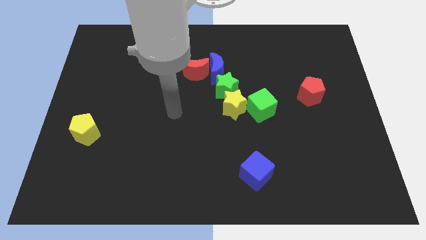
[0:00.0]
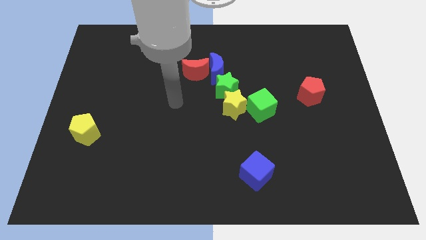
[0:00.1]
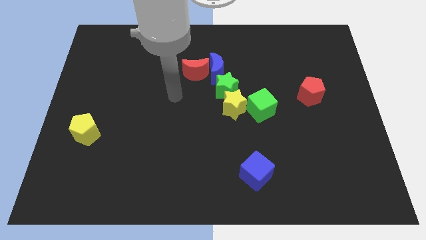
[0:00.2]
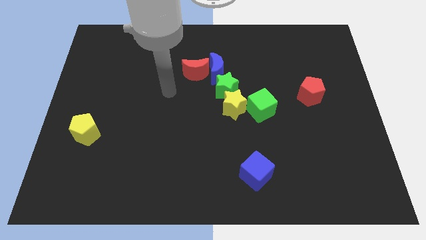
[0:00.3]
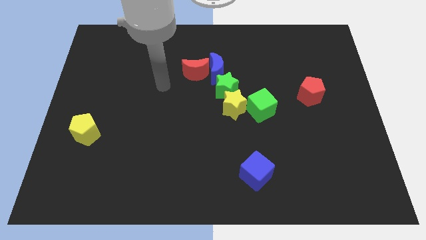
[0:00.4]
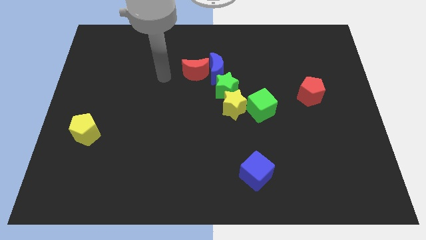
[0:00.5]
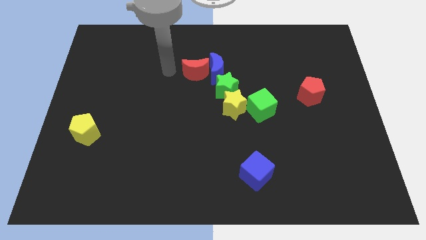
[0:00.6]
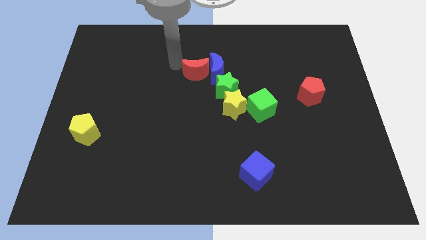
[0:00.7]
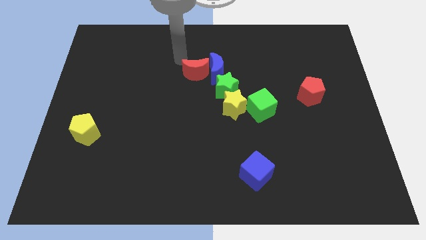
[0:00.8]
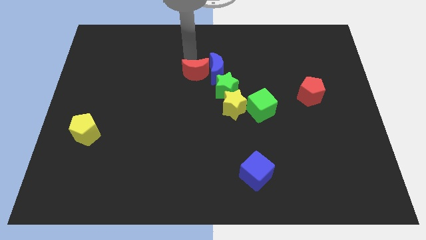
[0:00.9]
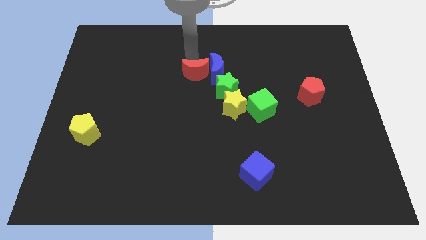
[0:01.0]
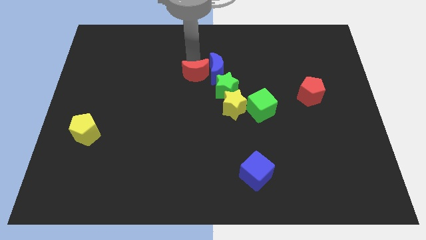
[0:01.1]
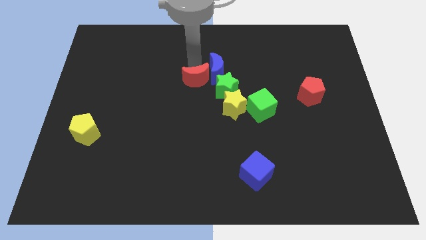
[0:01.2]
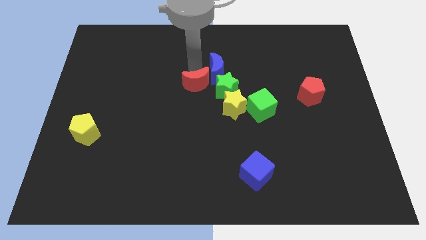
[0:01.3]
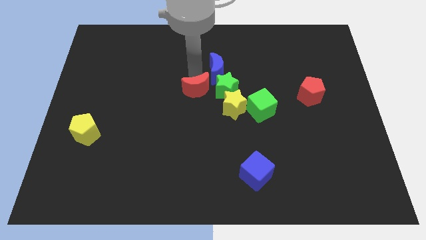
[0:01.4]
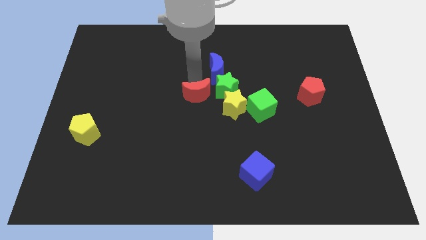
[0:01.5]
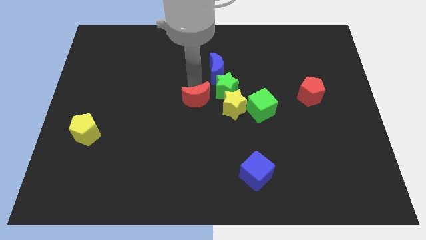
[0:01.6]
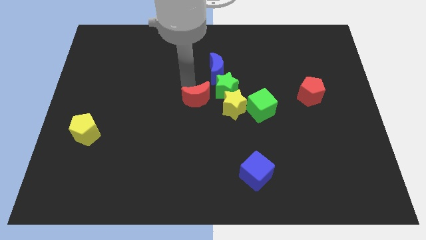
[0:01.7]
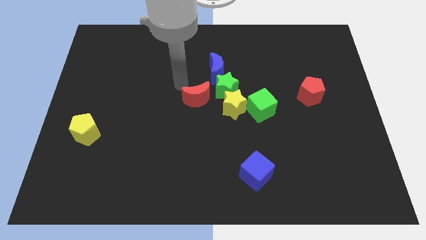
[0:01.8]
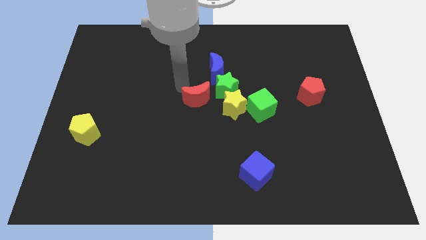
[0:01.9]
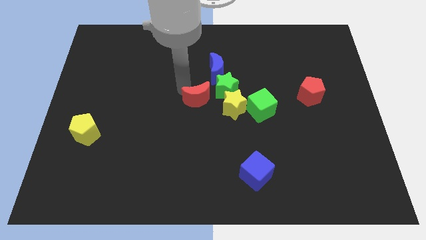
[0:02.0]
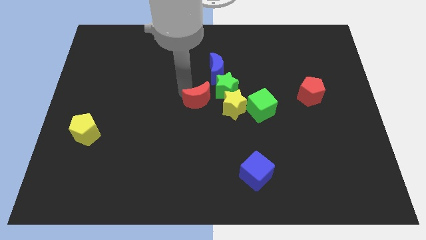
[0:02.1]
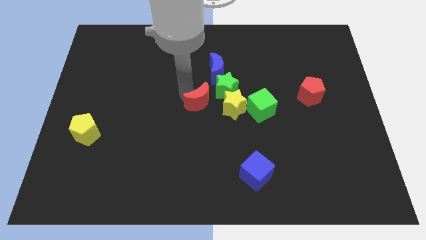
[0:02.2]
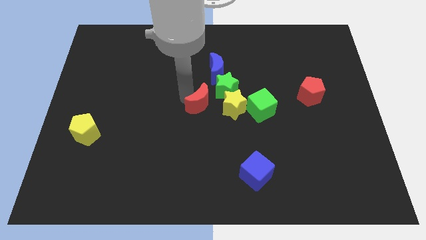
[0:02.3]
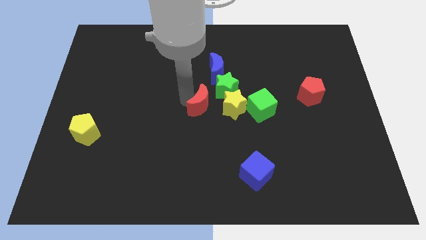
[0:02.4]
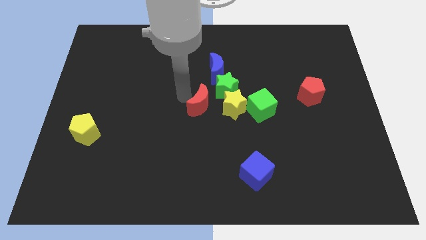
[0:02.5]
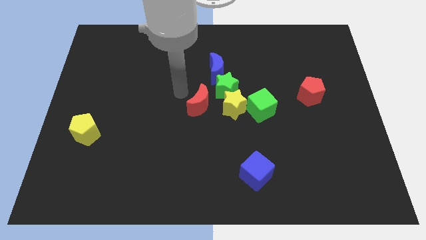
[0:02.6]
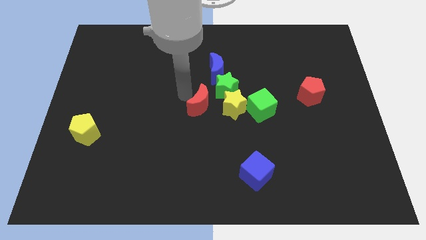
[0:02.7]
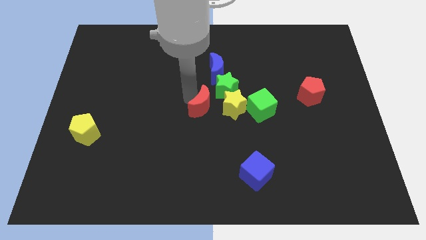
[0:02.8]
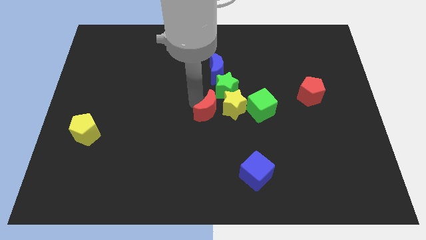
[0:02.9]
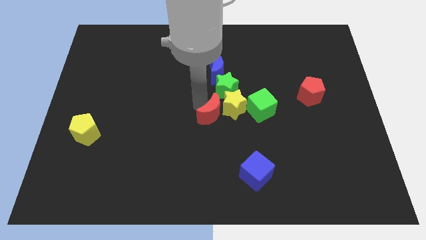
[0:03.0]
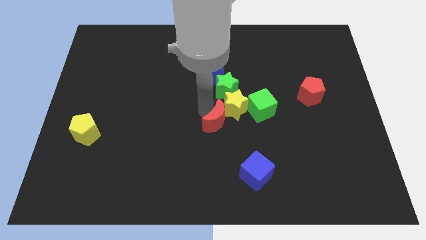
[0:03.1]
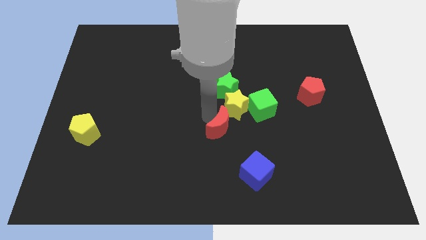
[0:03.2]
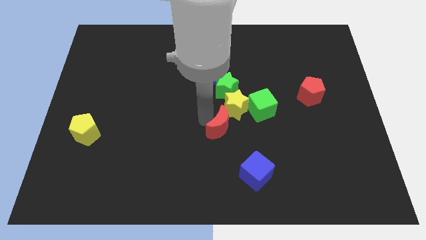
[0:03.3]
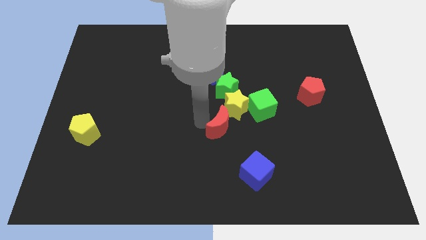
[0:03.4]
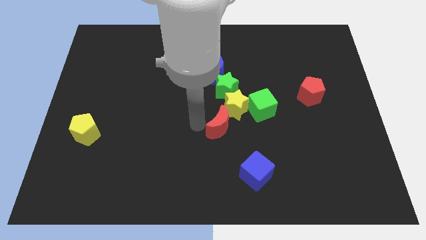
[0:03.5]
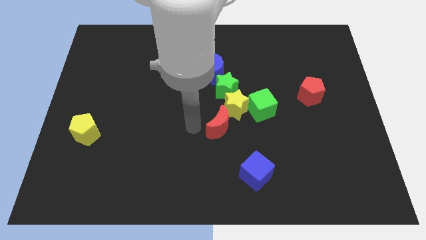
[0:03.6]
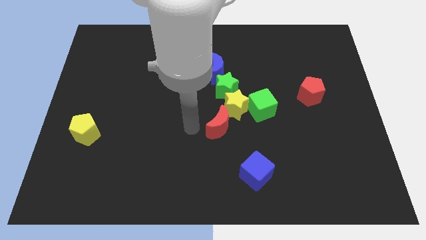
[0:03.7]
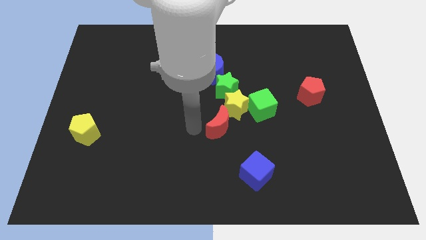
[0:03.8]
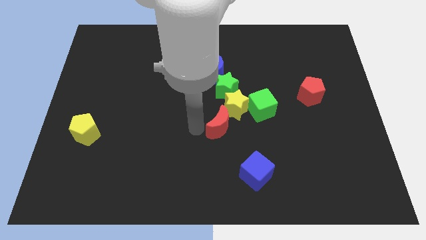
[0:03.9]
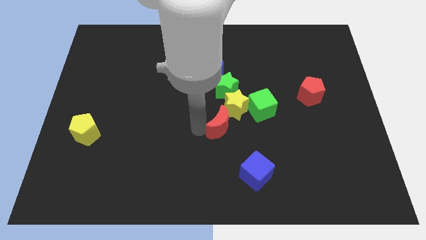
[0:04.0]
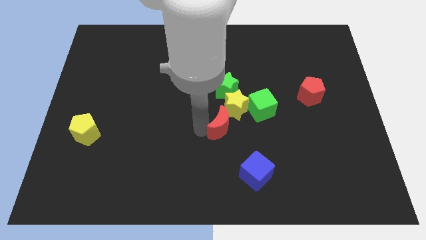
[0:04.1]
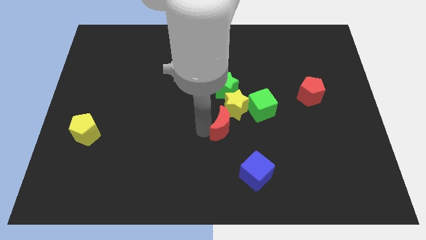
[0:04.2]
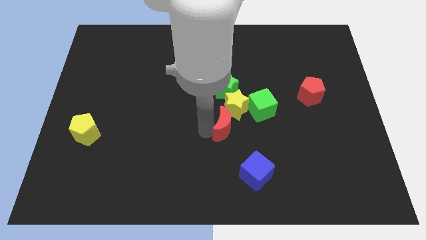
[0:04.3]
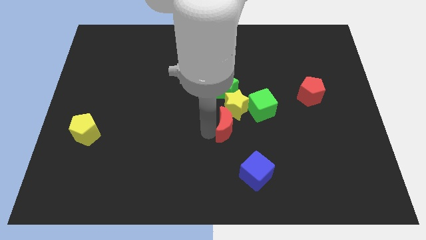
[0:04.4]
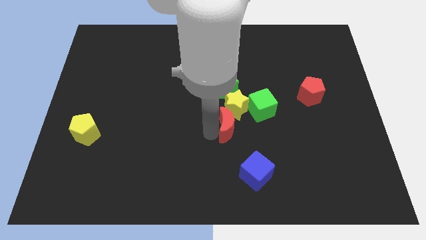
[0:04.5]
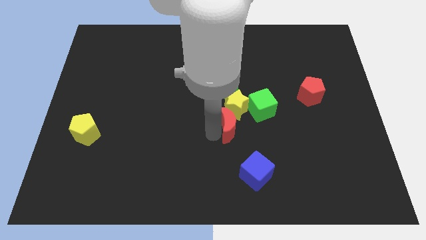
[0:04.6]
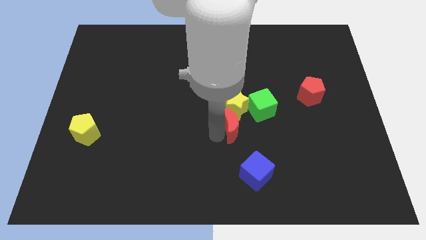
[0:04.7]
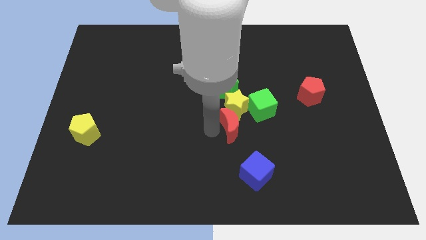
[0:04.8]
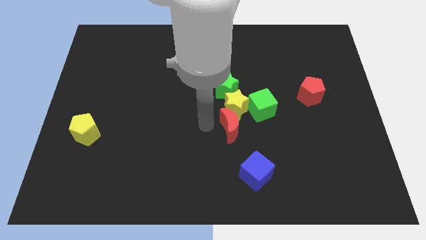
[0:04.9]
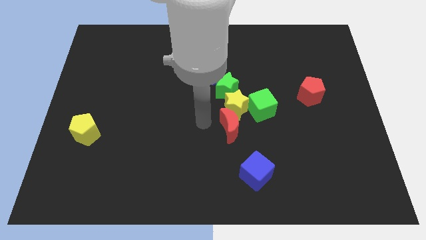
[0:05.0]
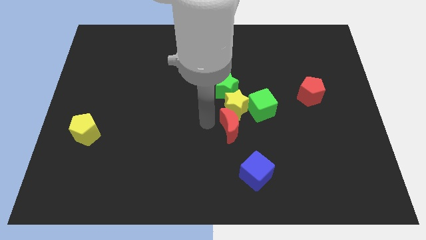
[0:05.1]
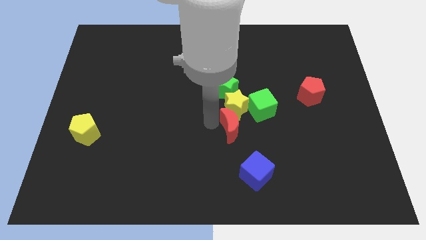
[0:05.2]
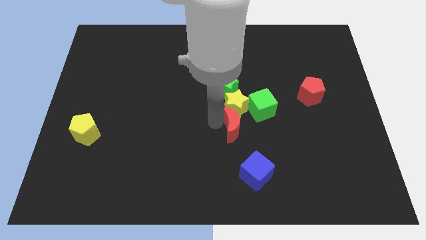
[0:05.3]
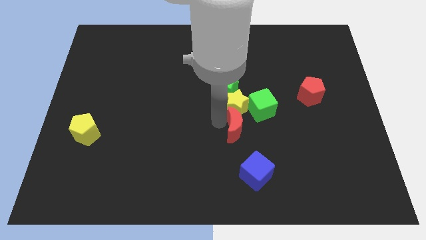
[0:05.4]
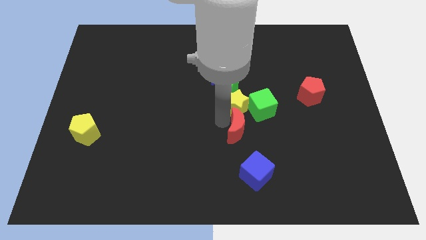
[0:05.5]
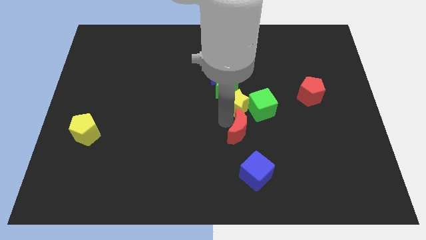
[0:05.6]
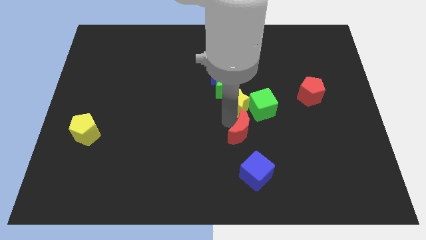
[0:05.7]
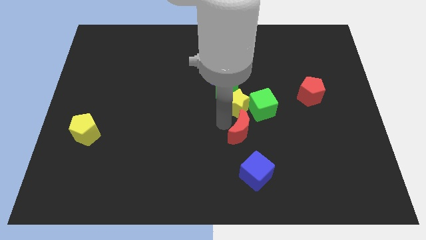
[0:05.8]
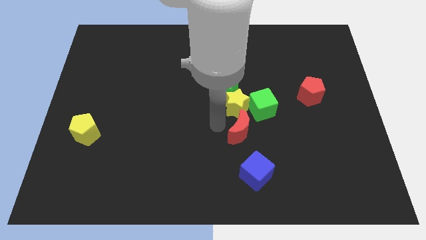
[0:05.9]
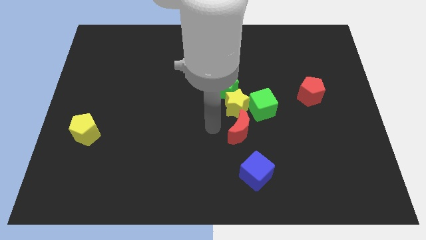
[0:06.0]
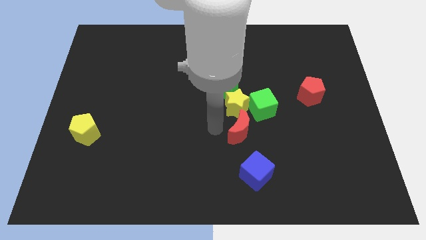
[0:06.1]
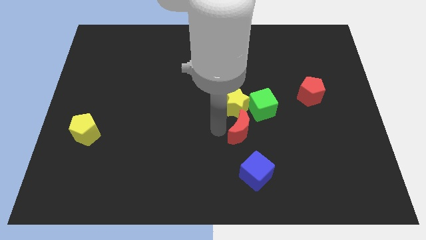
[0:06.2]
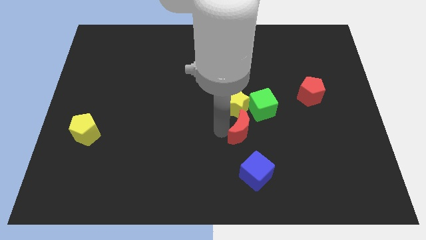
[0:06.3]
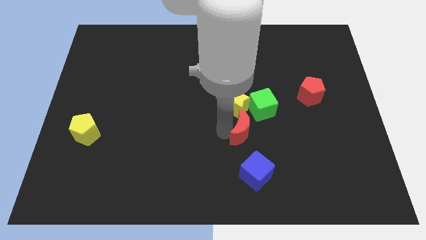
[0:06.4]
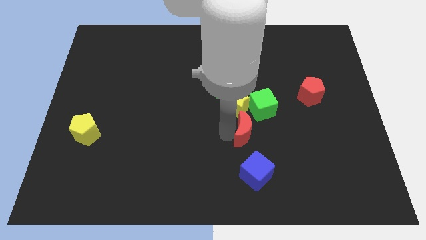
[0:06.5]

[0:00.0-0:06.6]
move the red moon diagonally down and to the right

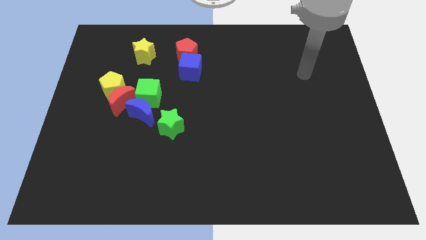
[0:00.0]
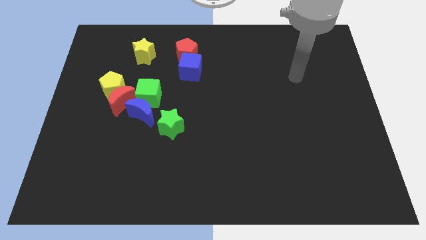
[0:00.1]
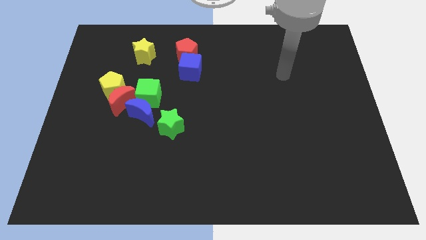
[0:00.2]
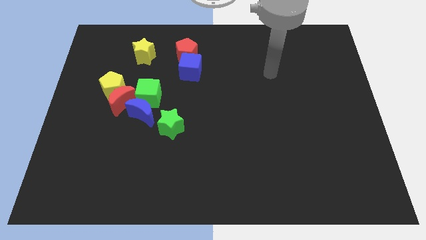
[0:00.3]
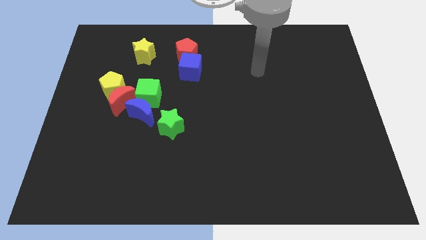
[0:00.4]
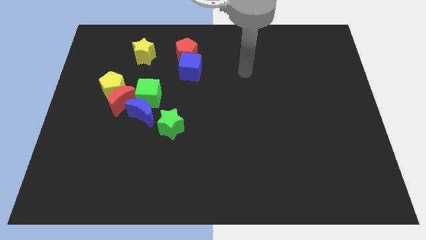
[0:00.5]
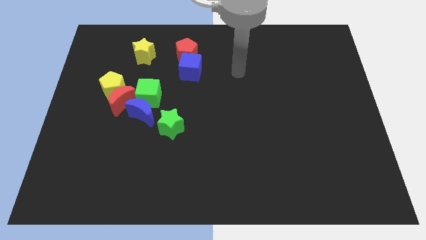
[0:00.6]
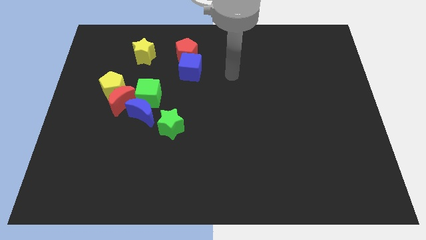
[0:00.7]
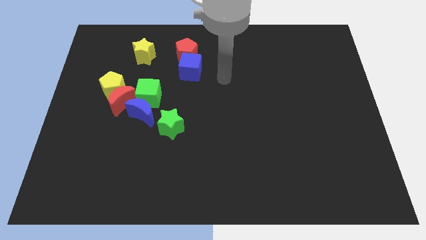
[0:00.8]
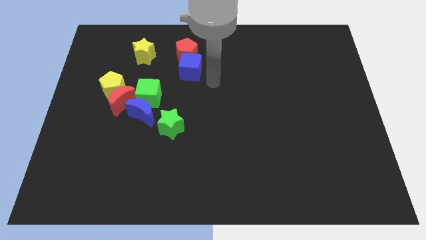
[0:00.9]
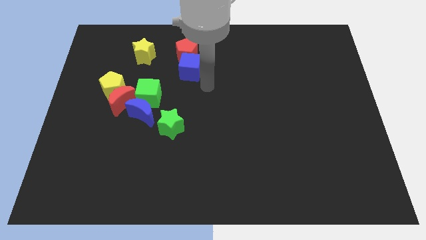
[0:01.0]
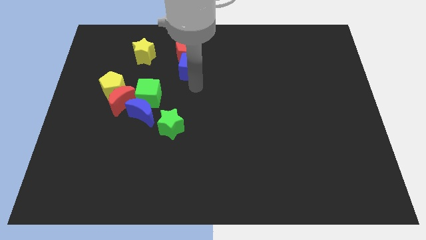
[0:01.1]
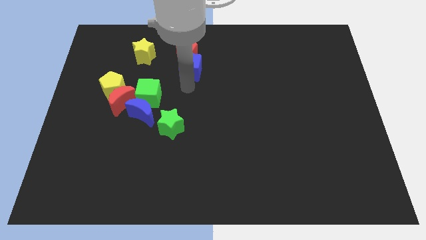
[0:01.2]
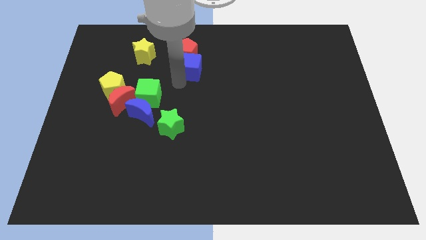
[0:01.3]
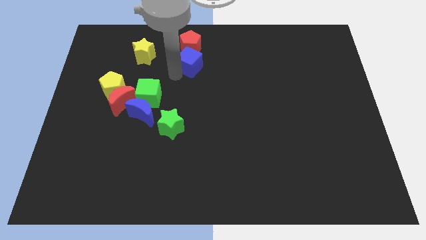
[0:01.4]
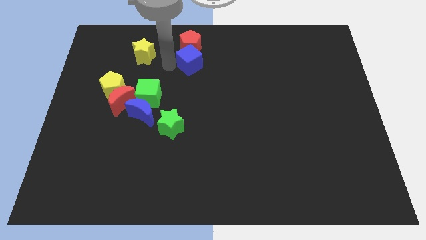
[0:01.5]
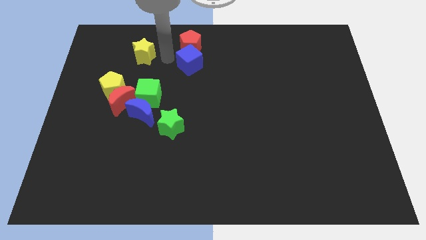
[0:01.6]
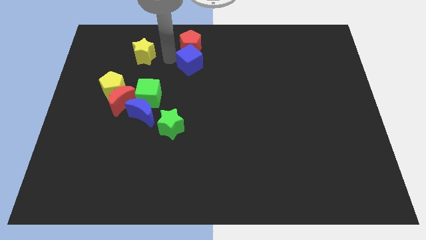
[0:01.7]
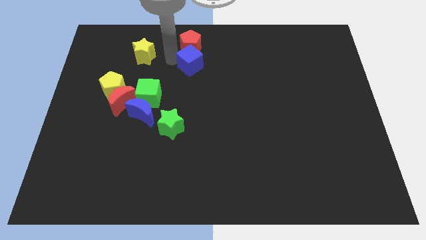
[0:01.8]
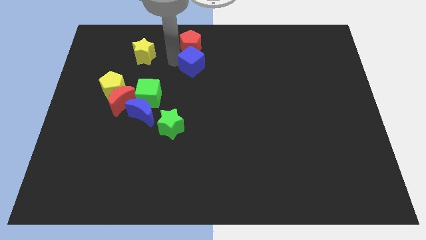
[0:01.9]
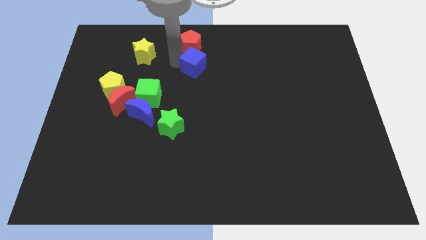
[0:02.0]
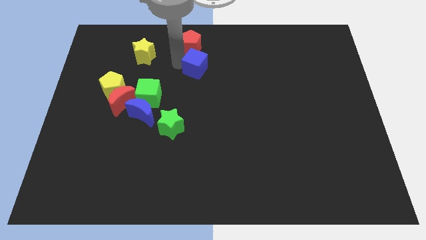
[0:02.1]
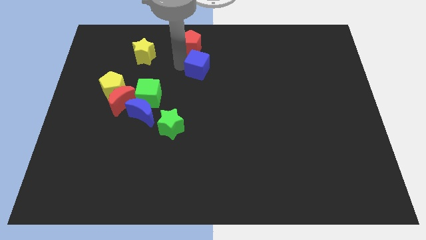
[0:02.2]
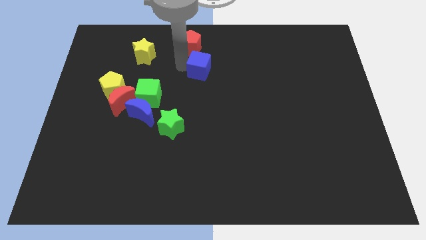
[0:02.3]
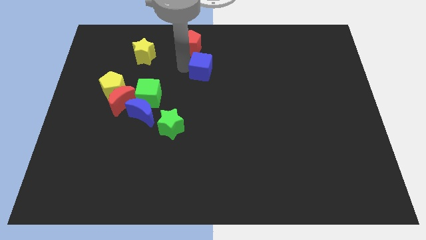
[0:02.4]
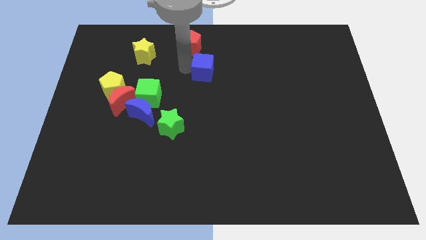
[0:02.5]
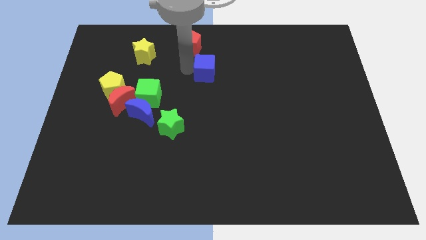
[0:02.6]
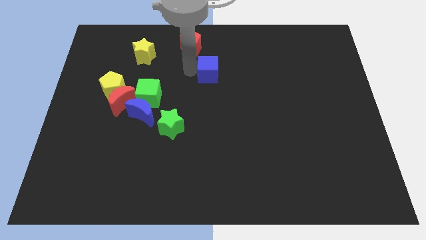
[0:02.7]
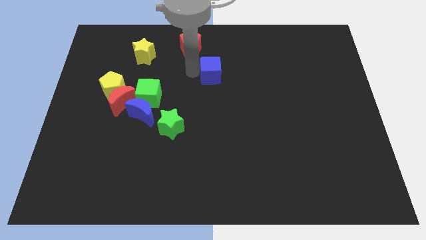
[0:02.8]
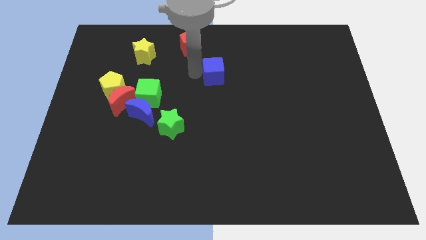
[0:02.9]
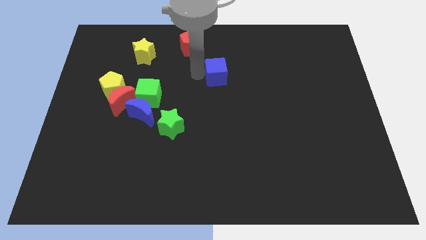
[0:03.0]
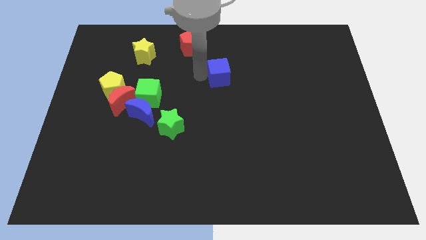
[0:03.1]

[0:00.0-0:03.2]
slightly push the blue cube to the right
